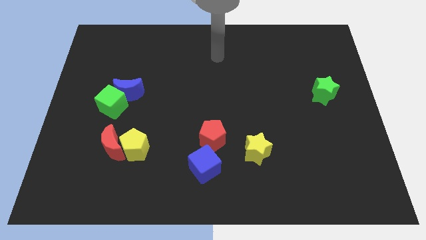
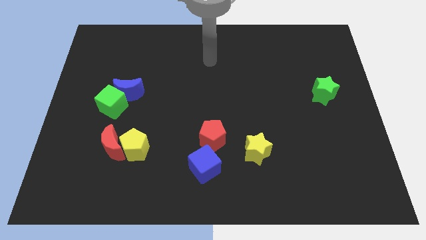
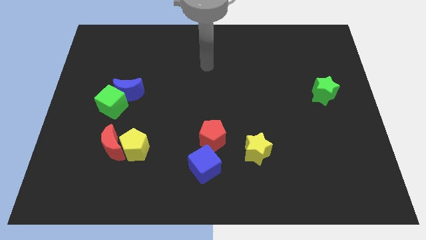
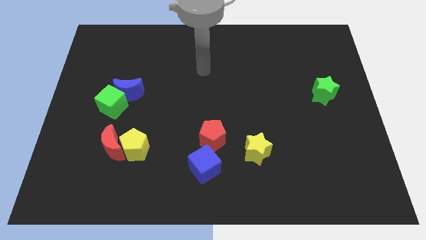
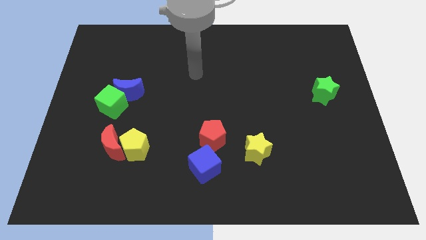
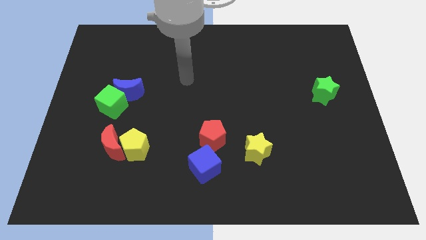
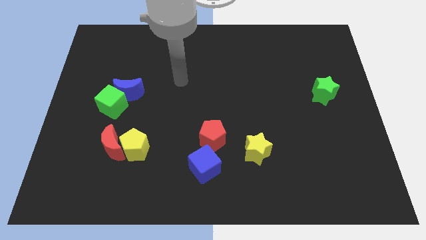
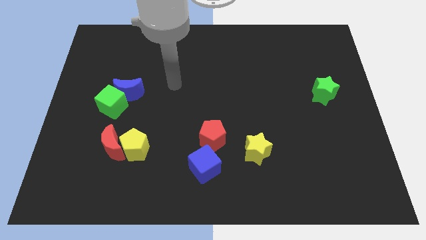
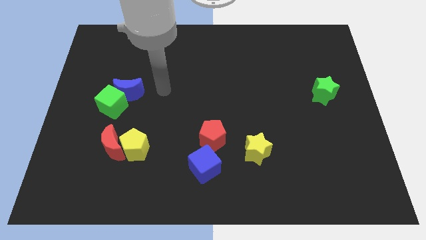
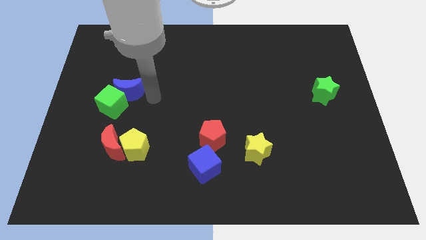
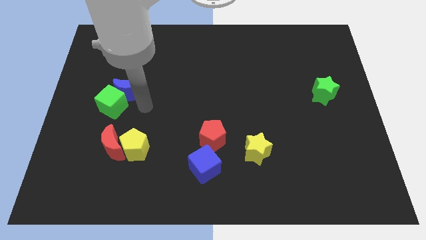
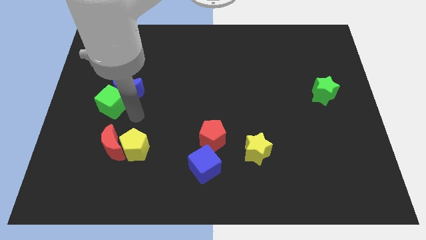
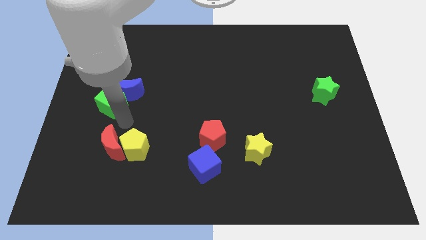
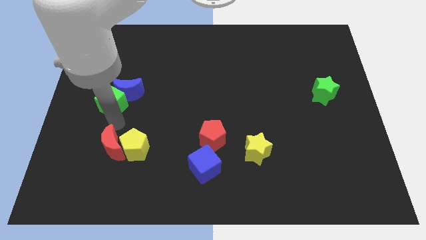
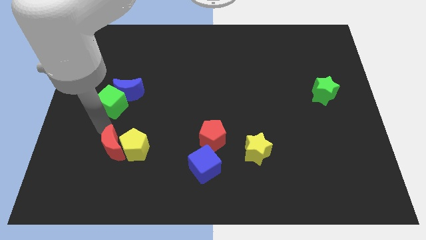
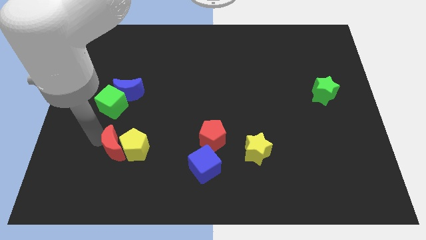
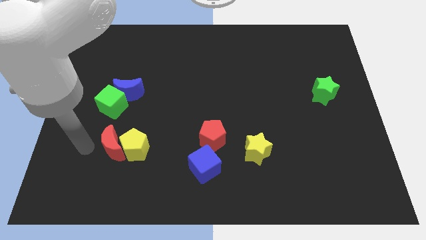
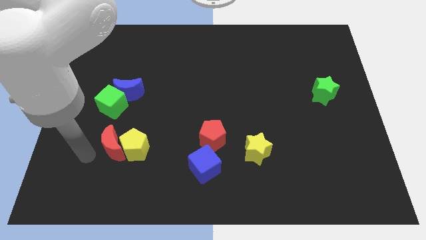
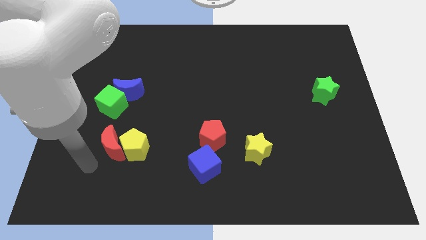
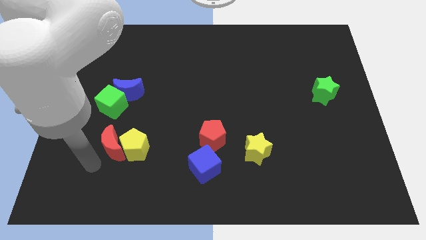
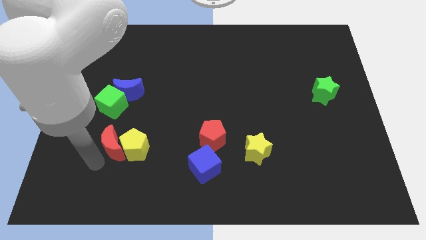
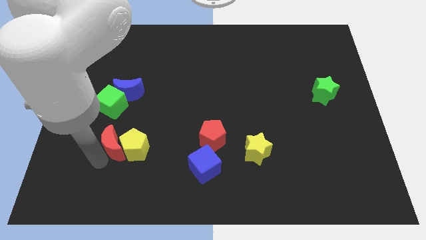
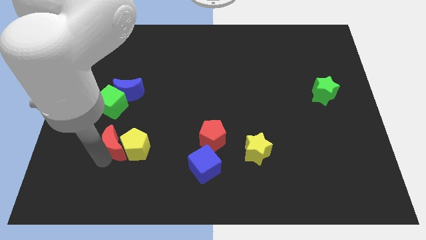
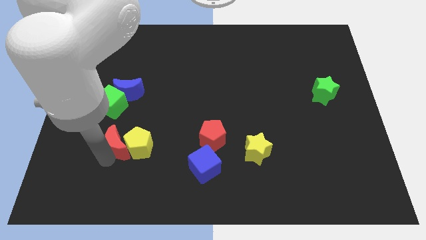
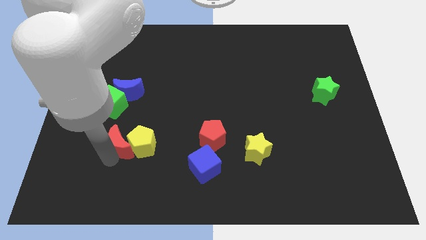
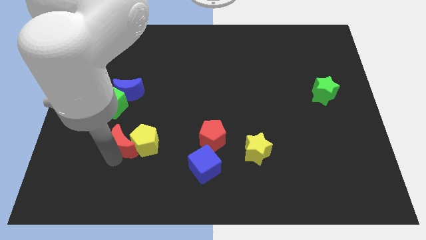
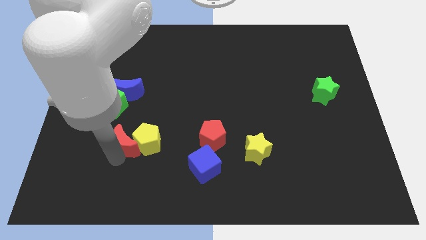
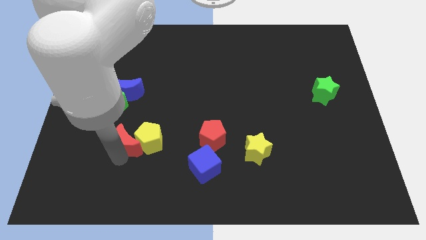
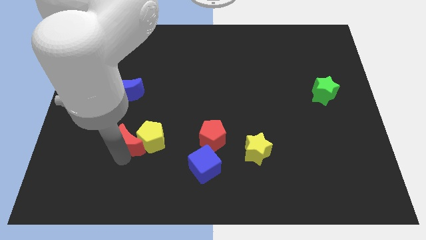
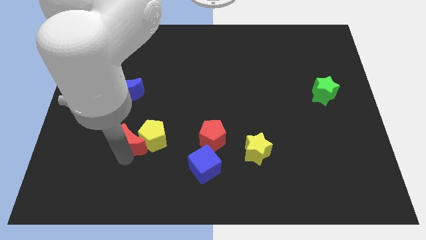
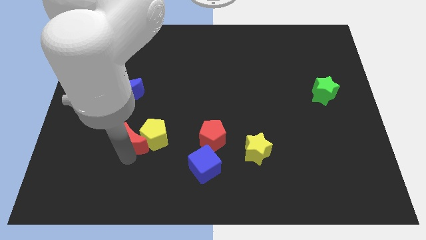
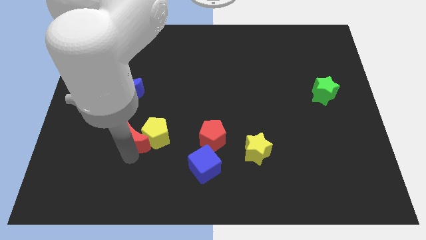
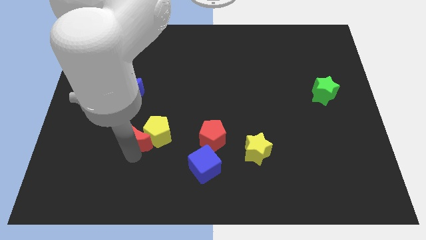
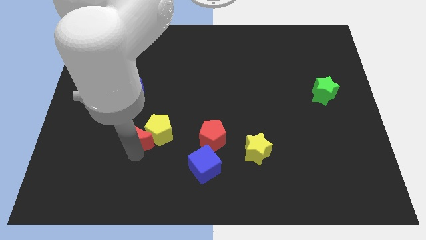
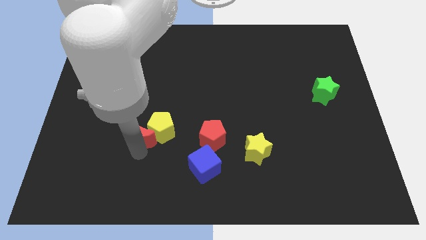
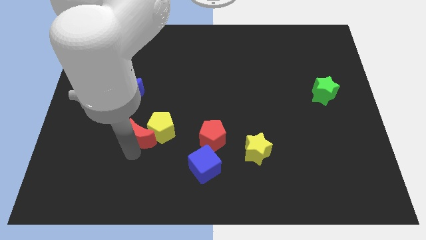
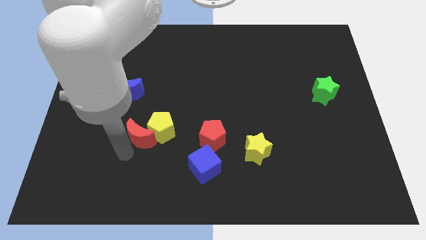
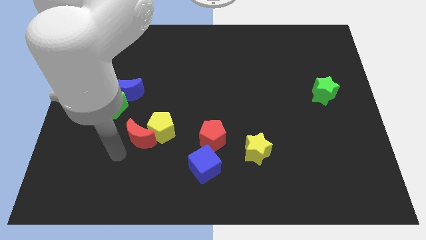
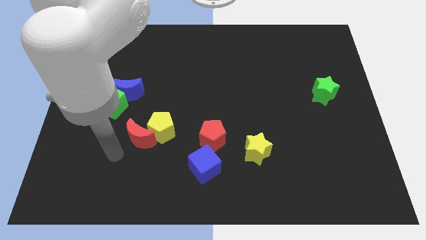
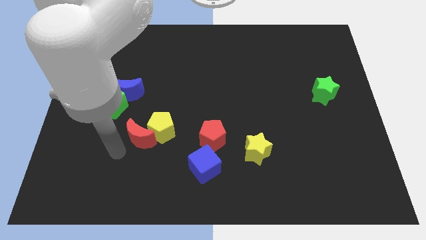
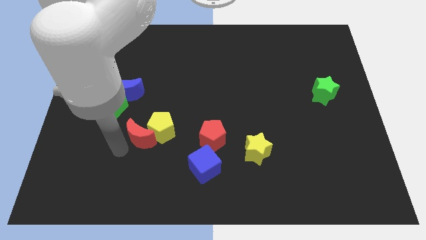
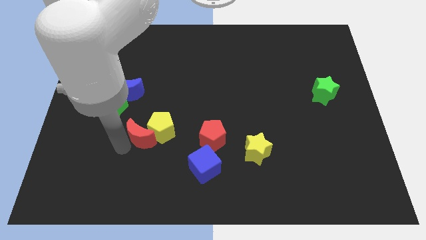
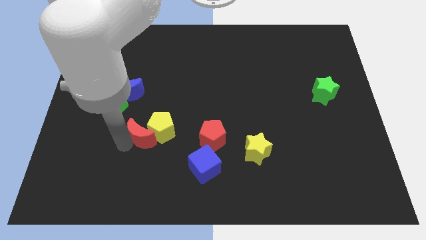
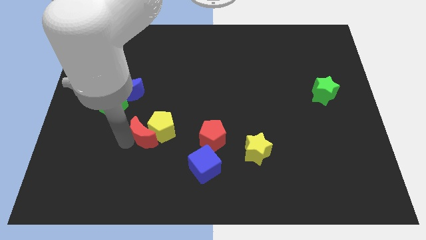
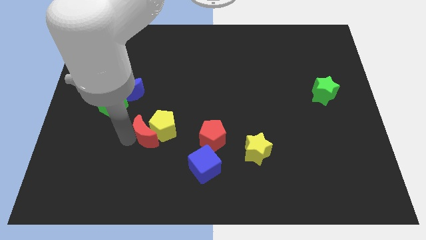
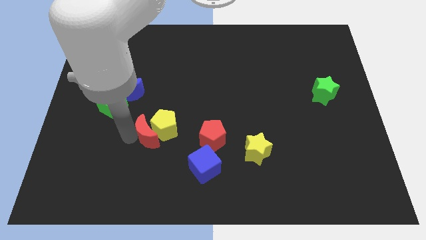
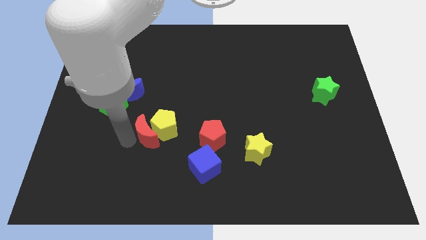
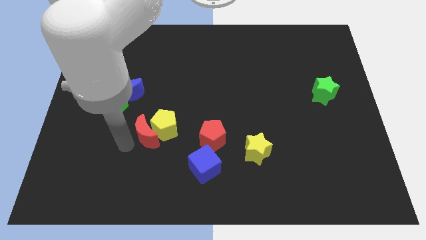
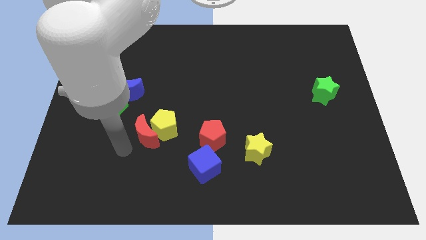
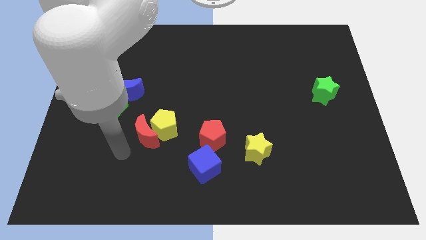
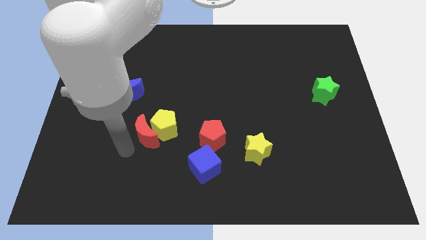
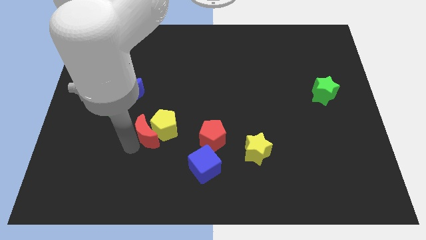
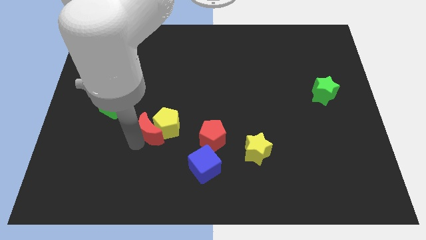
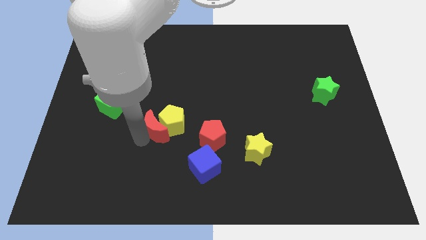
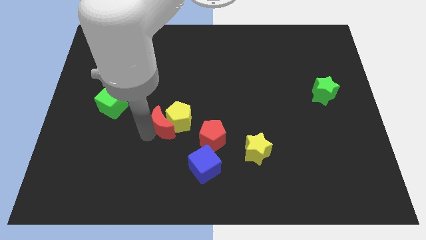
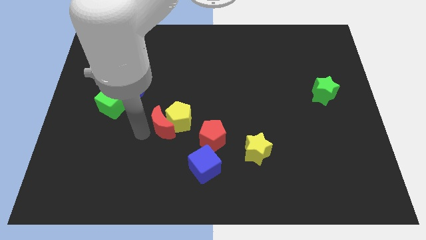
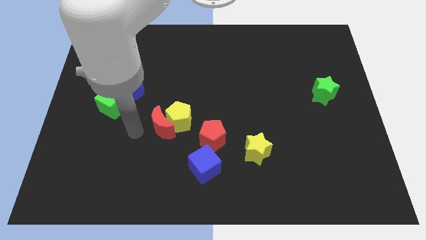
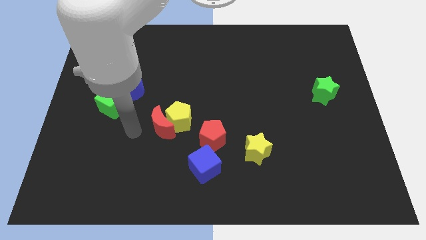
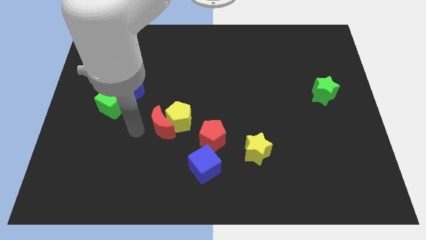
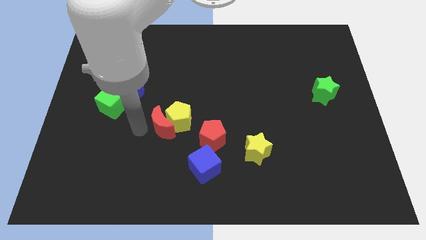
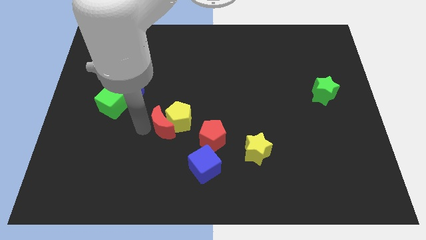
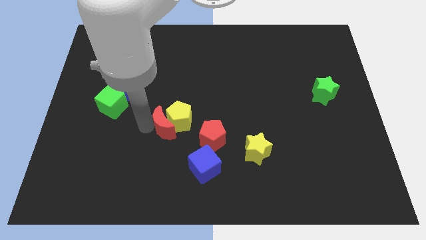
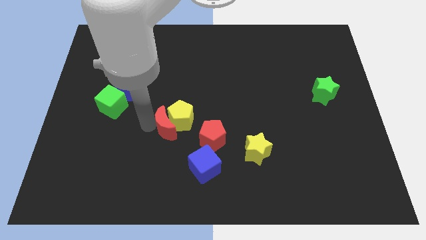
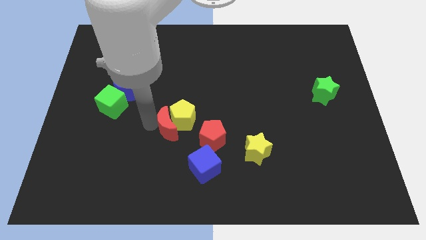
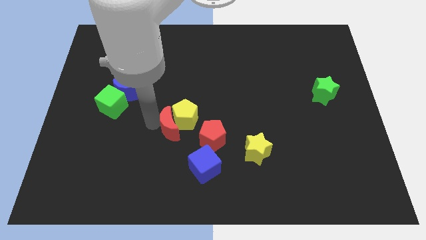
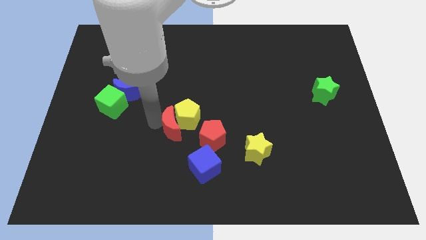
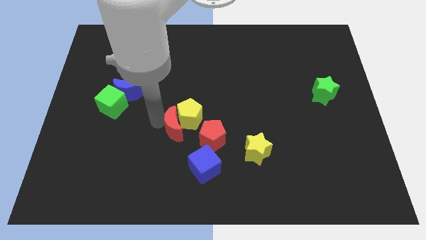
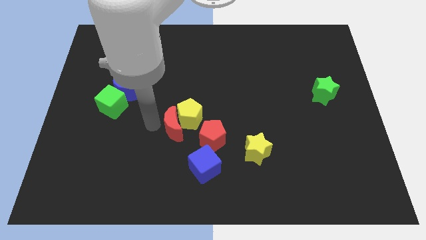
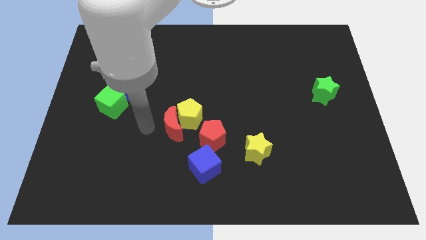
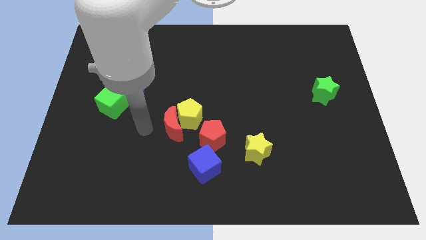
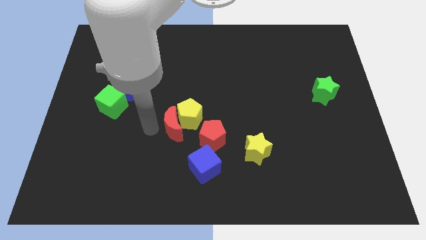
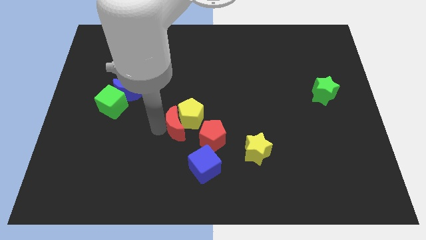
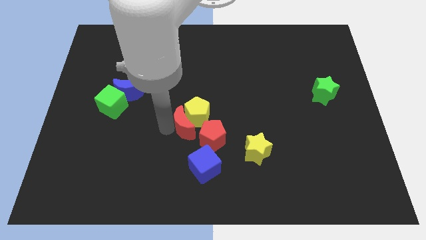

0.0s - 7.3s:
slide the red moon to the top side of the blue cube
